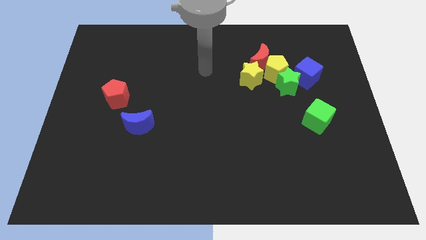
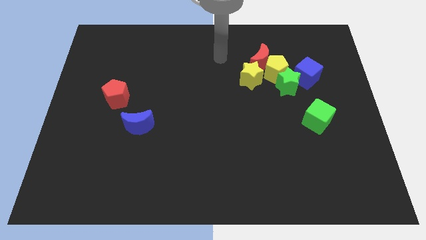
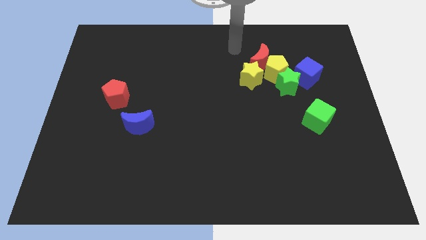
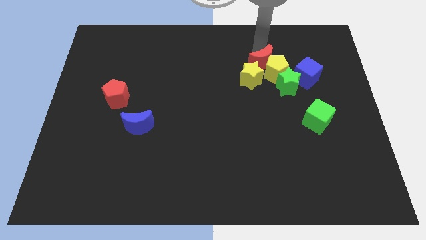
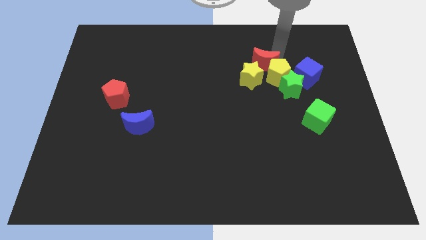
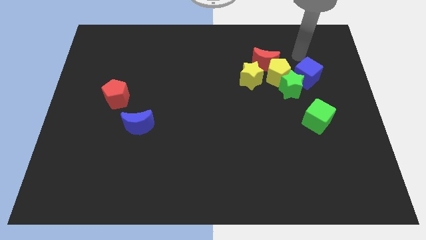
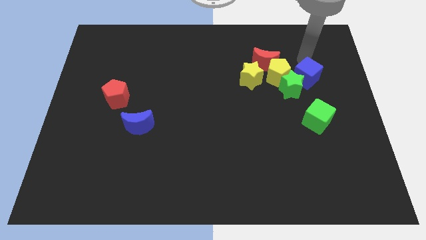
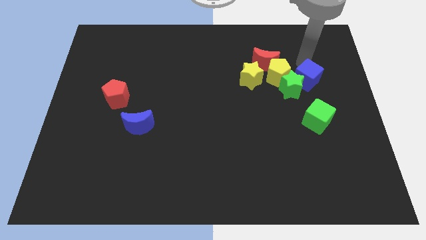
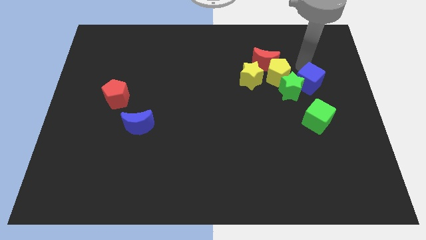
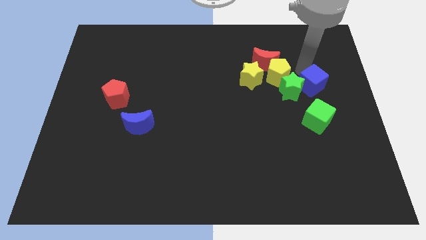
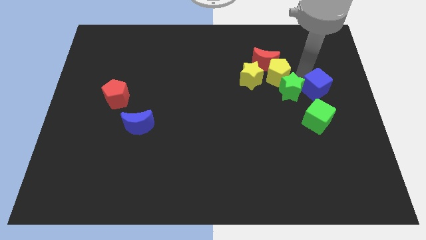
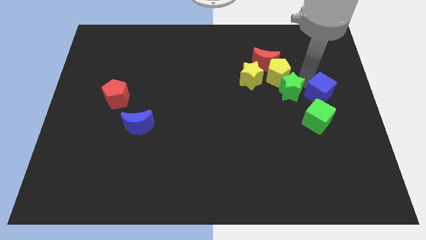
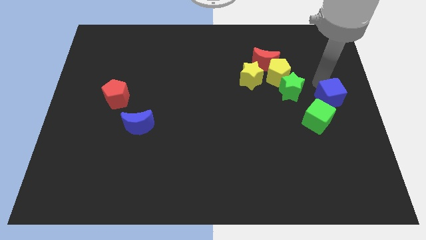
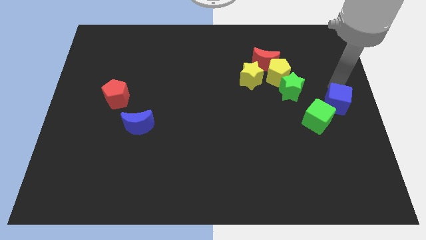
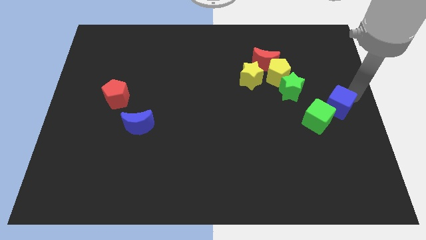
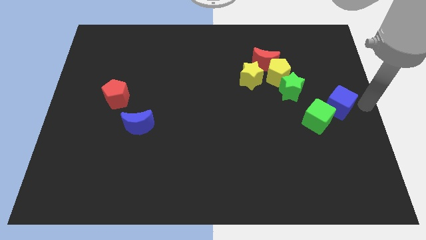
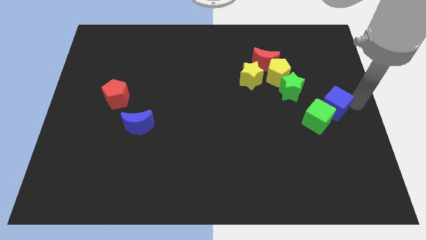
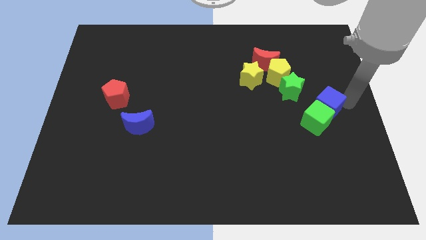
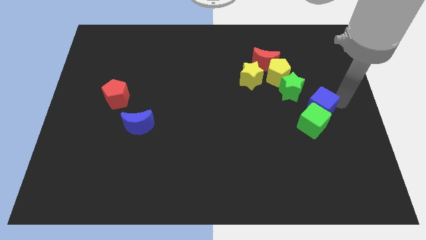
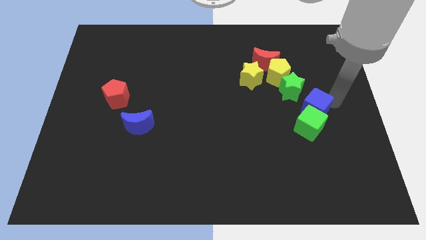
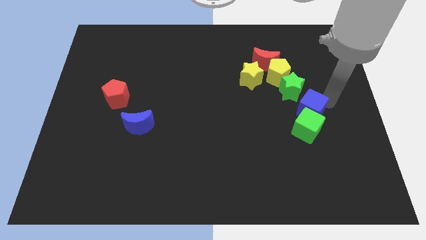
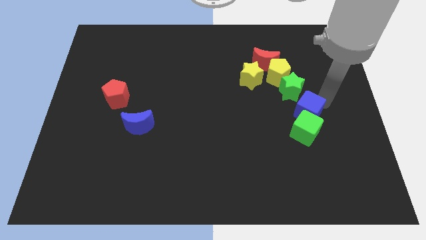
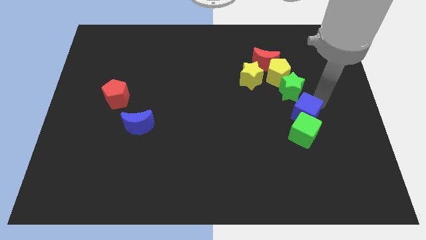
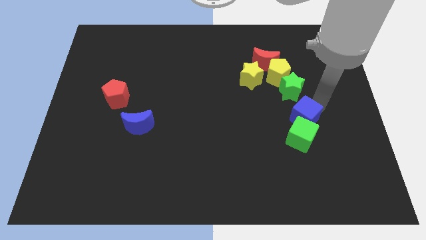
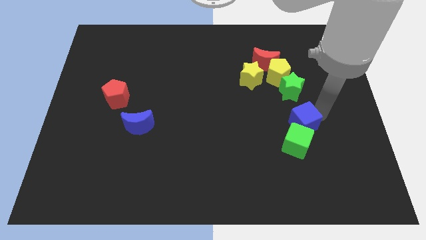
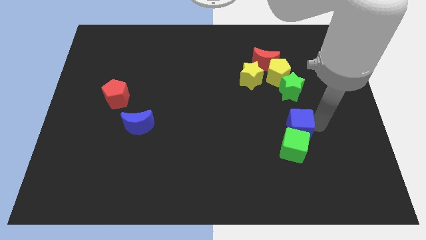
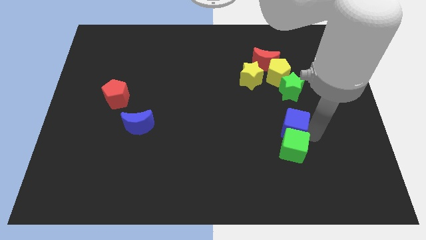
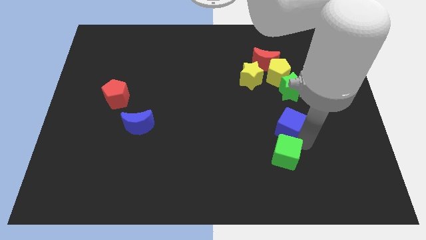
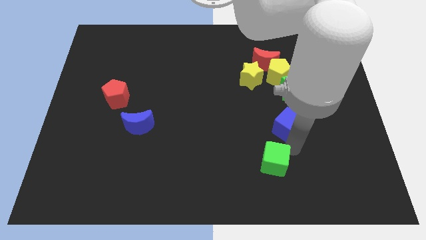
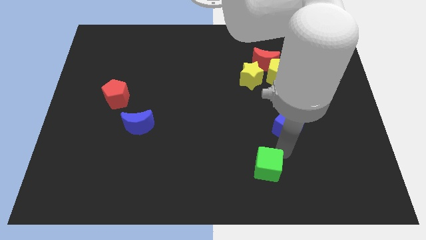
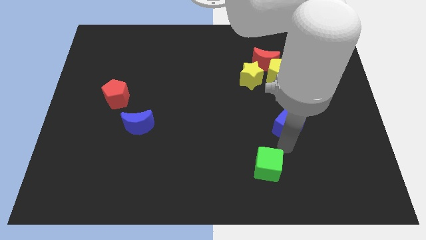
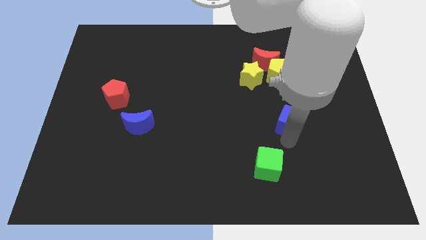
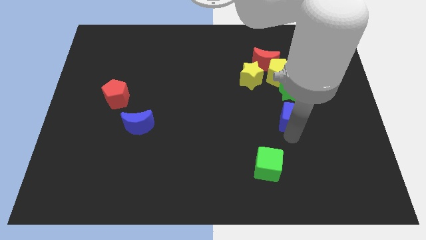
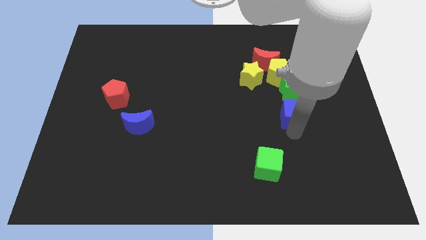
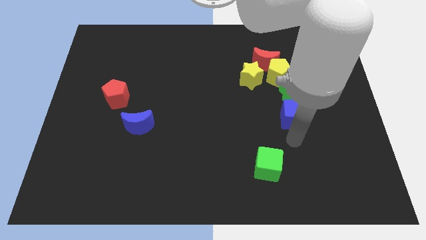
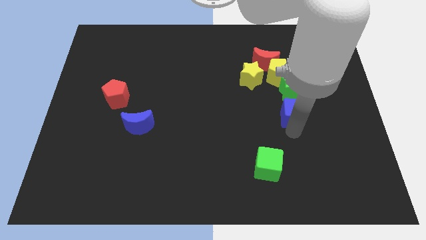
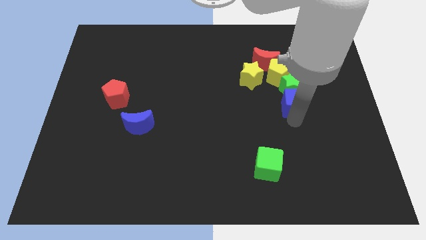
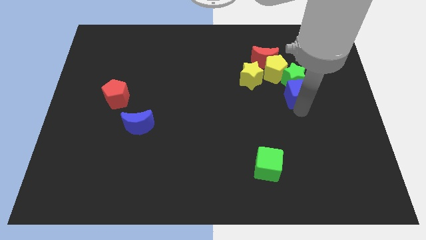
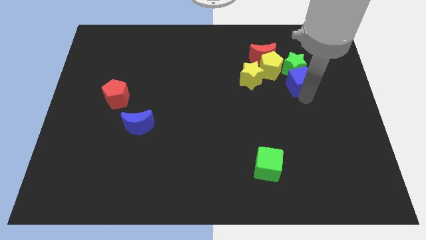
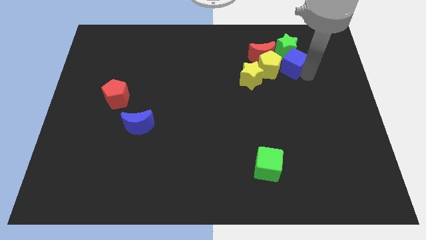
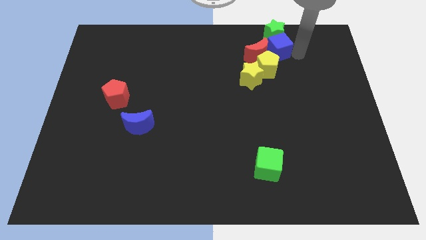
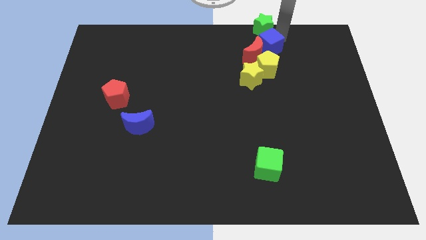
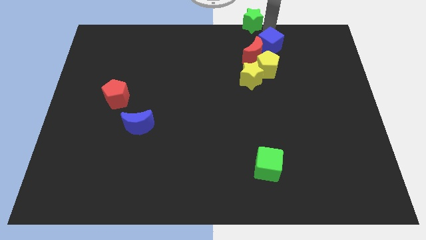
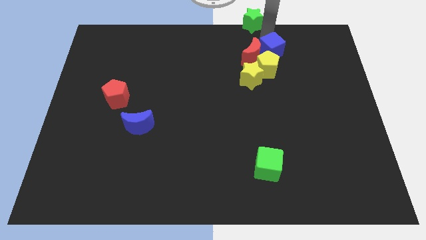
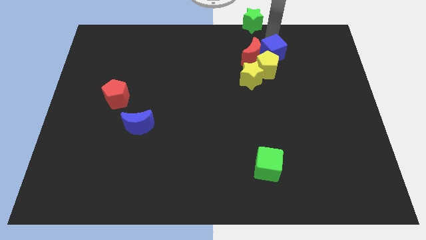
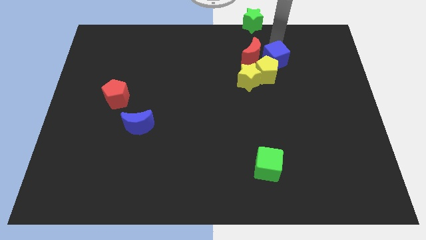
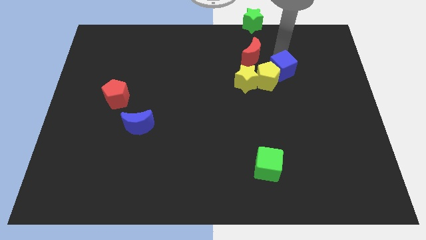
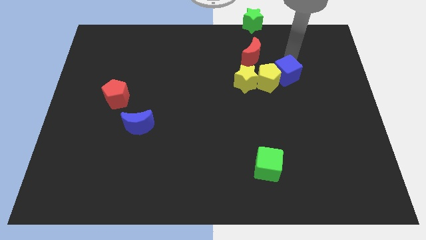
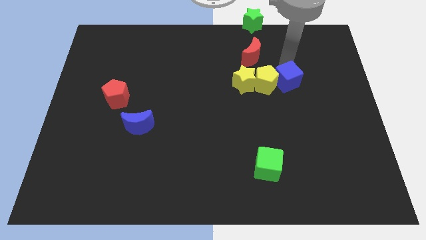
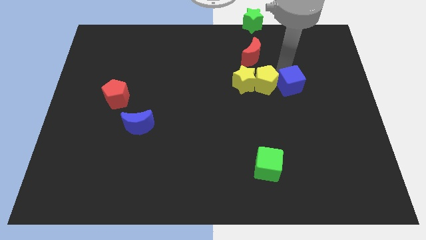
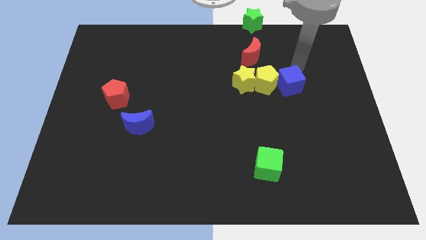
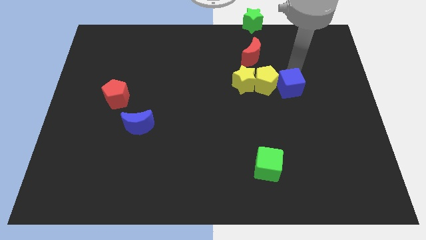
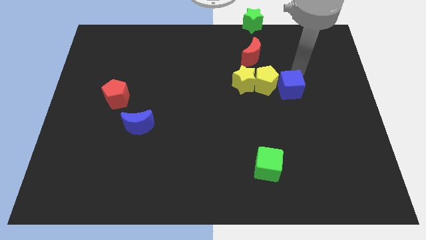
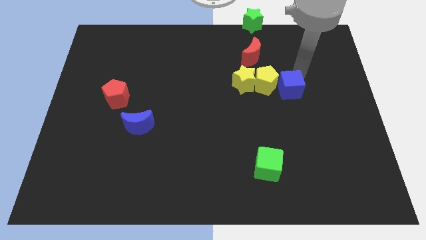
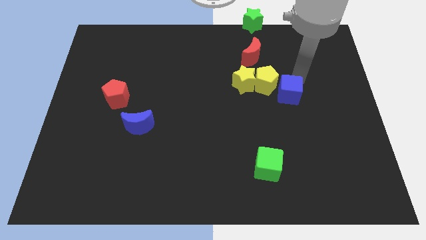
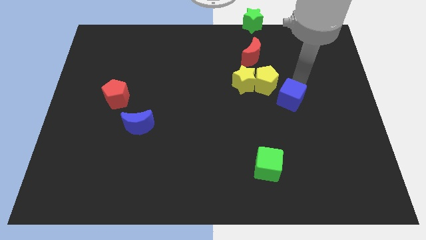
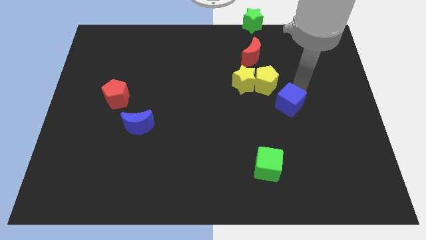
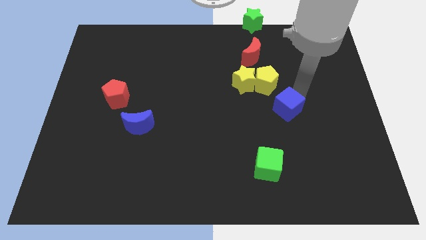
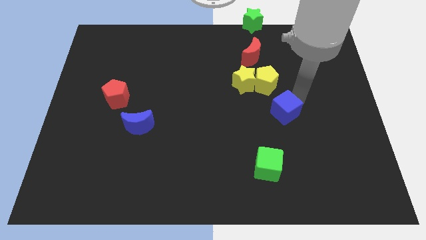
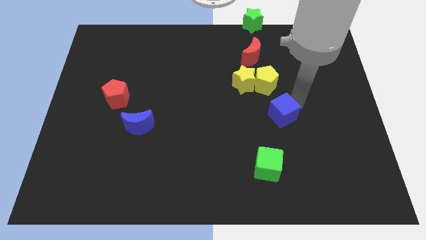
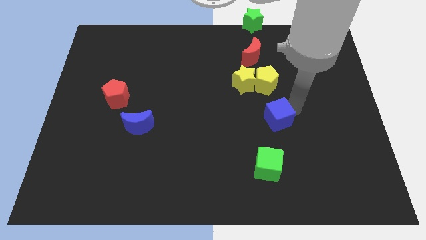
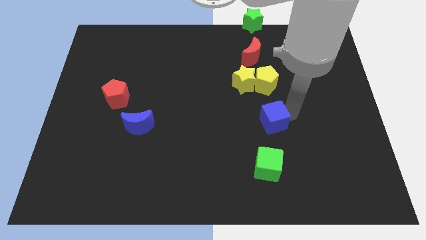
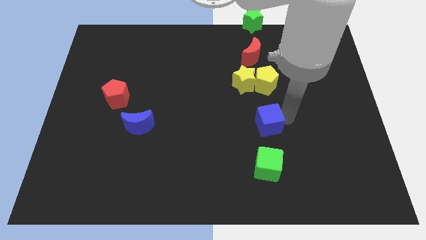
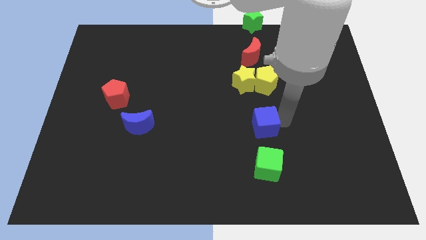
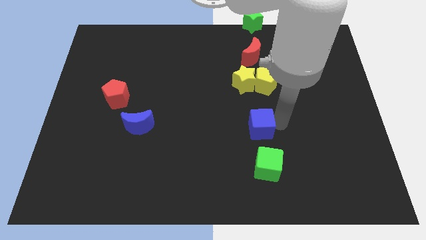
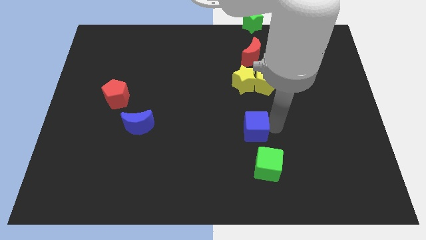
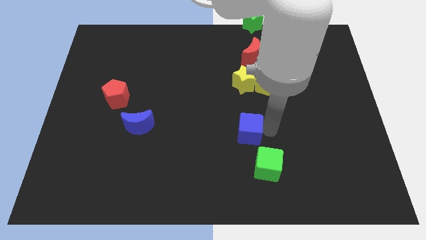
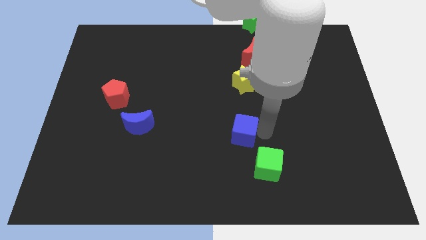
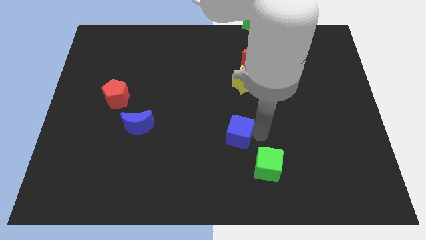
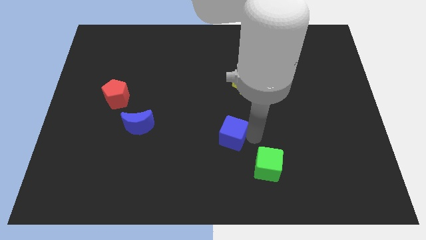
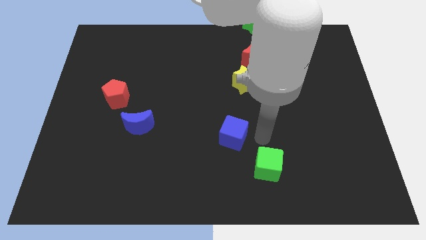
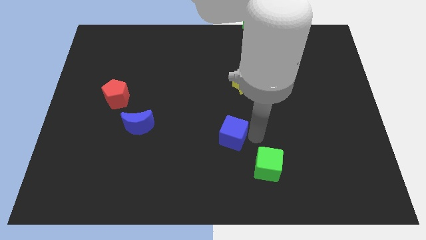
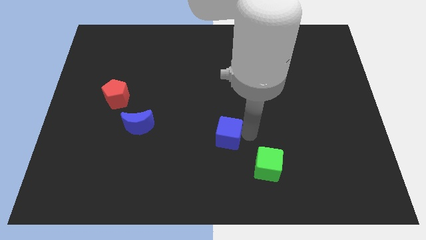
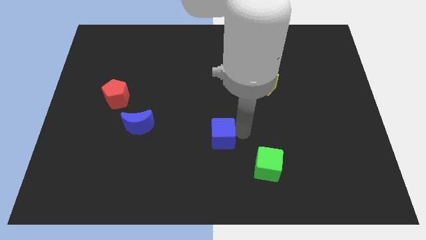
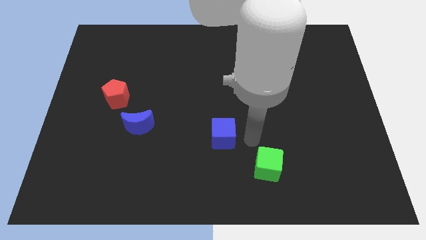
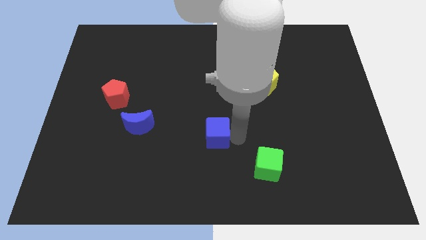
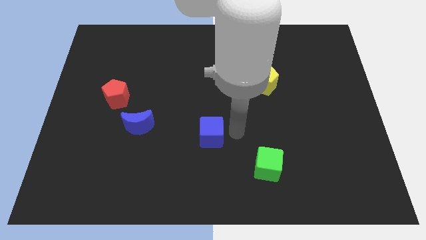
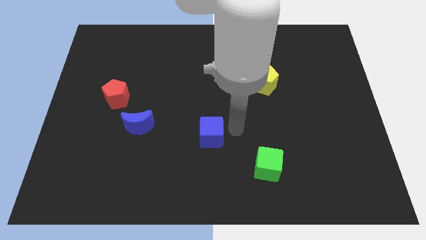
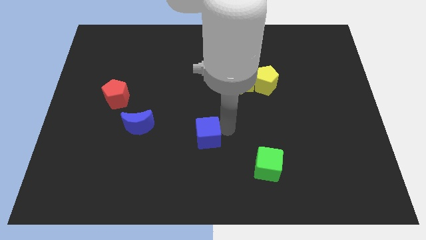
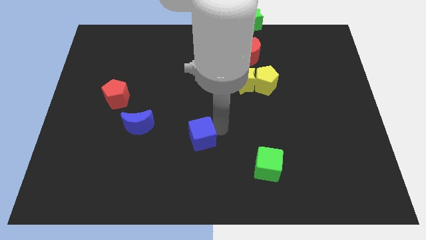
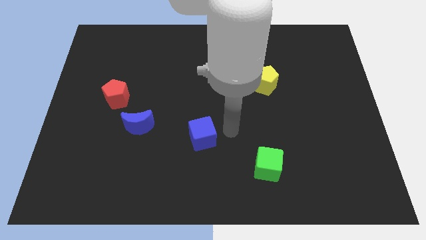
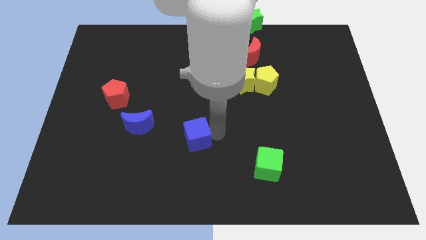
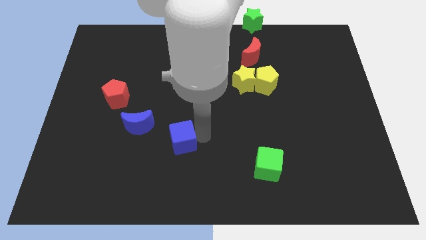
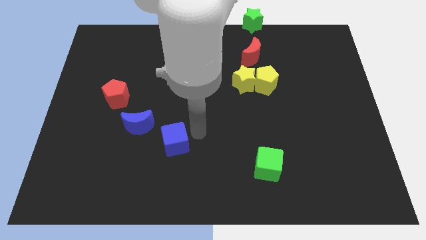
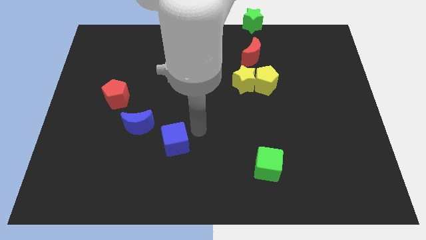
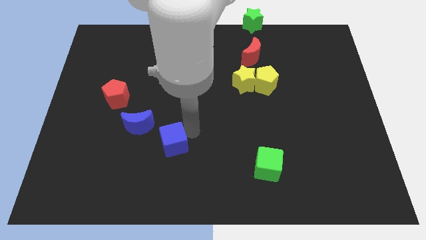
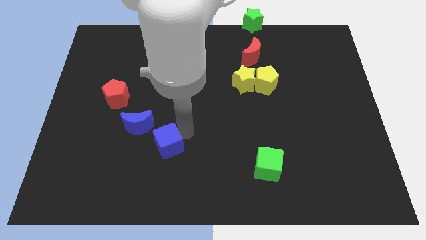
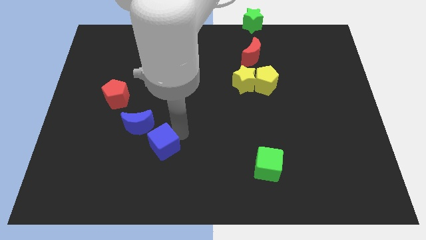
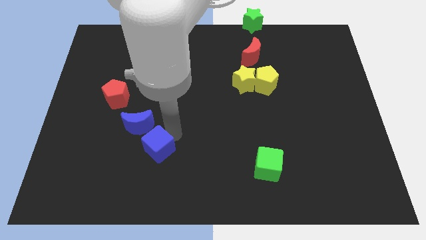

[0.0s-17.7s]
push the blue cube below the blue moon
